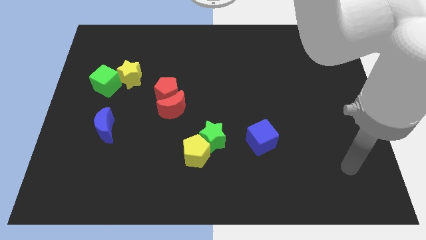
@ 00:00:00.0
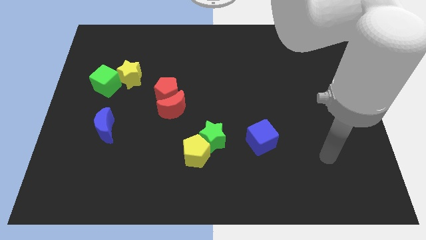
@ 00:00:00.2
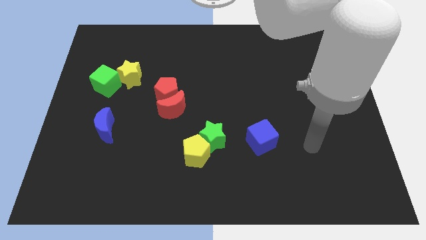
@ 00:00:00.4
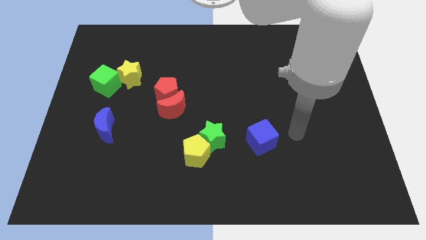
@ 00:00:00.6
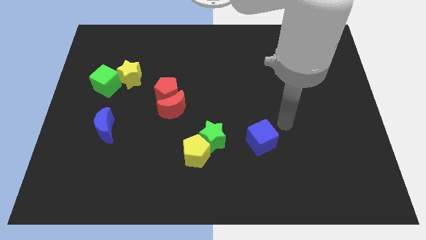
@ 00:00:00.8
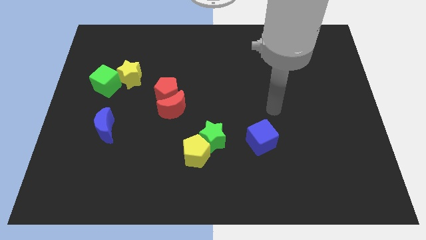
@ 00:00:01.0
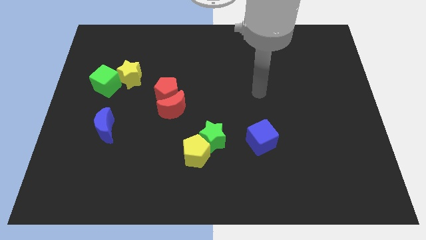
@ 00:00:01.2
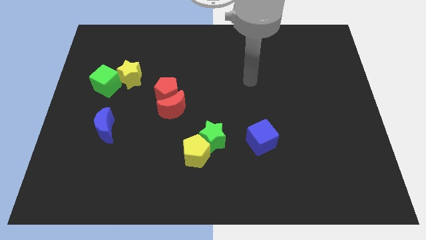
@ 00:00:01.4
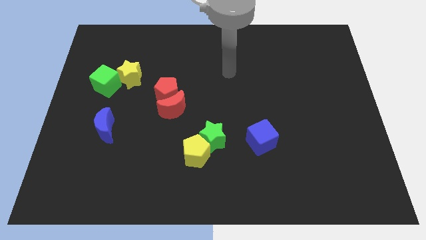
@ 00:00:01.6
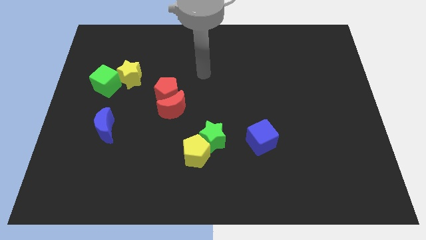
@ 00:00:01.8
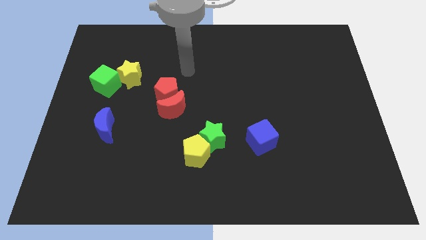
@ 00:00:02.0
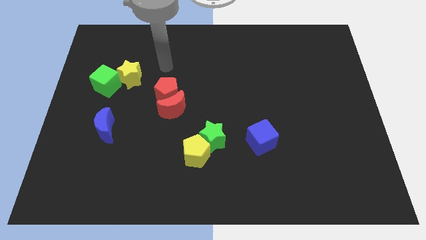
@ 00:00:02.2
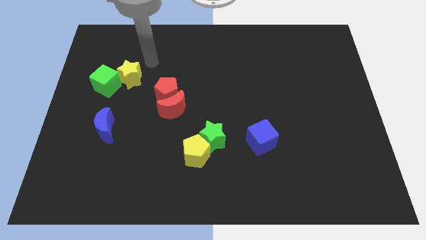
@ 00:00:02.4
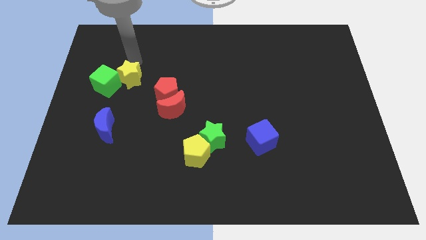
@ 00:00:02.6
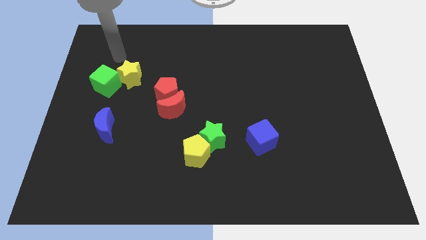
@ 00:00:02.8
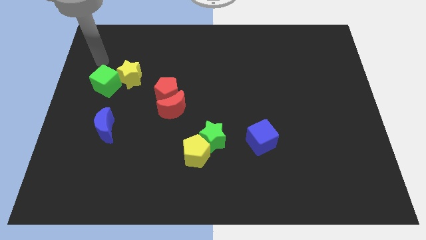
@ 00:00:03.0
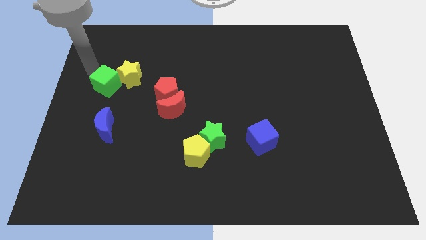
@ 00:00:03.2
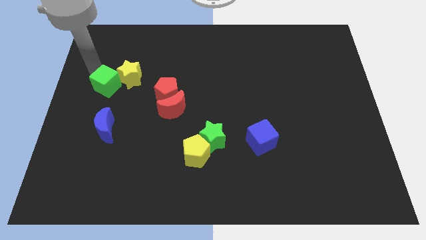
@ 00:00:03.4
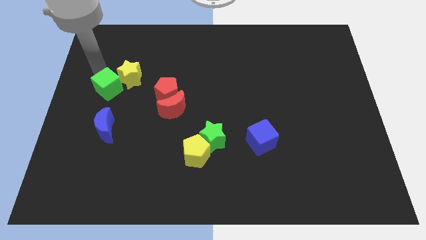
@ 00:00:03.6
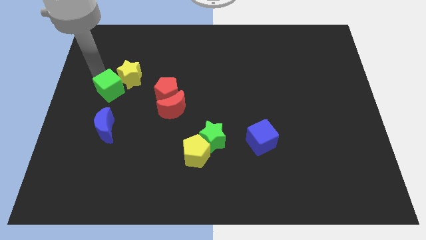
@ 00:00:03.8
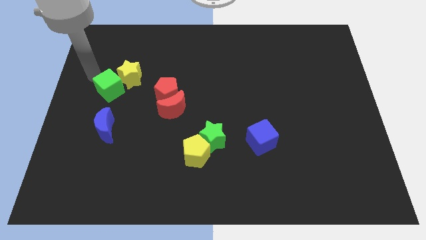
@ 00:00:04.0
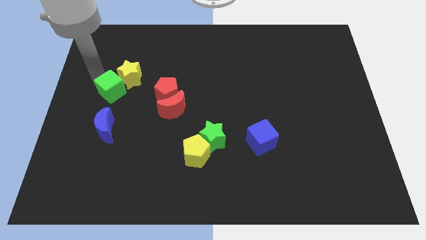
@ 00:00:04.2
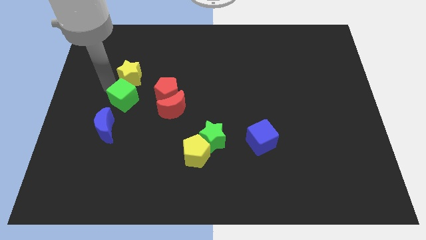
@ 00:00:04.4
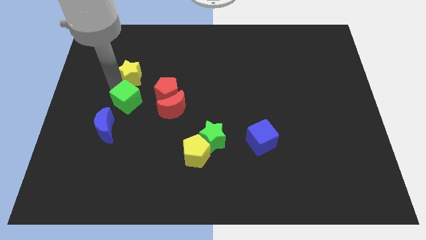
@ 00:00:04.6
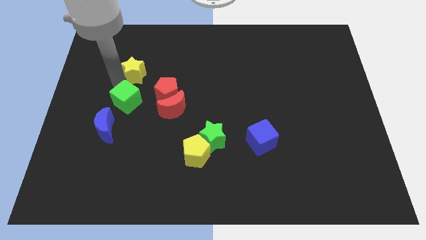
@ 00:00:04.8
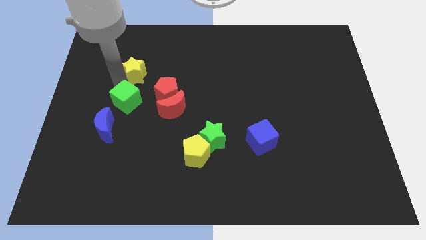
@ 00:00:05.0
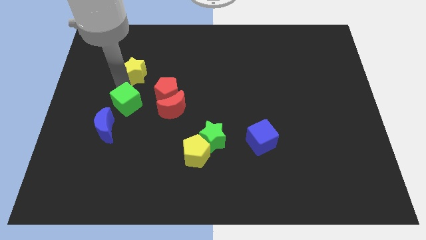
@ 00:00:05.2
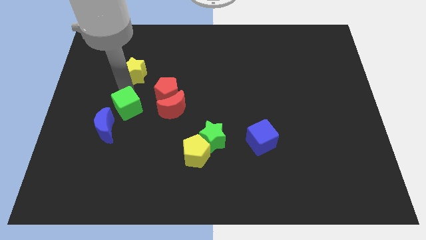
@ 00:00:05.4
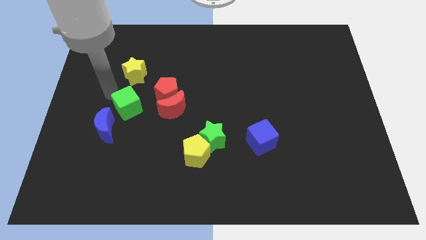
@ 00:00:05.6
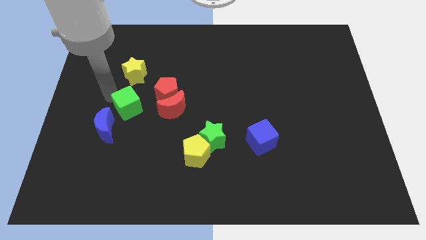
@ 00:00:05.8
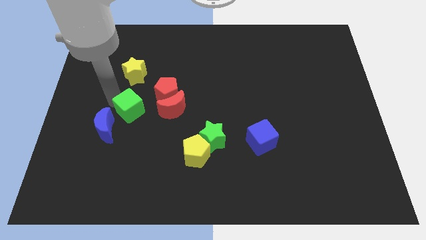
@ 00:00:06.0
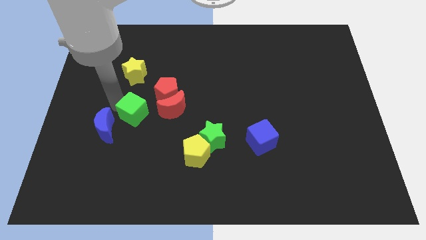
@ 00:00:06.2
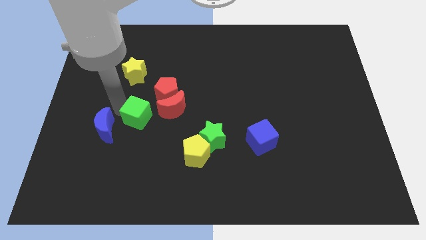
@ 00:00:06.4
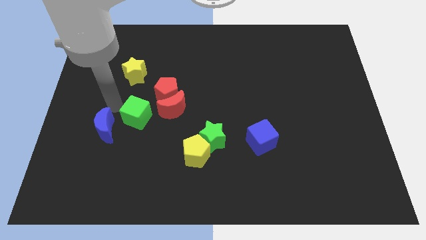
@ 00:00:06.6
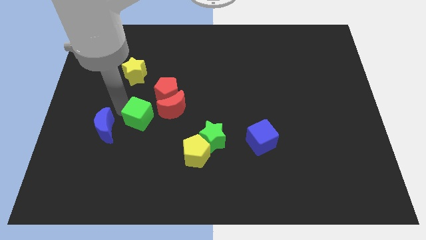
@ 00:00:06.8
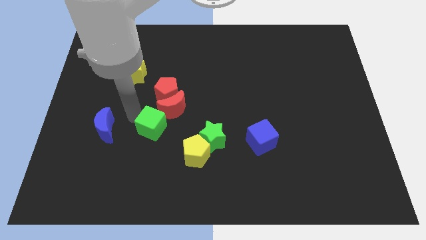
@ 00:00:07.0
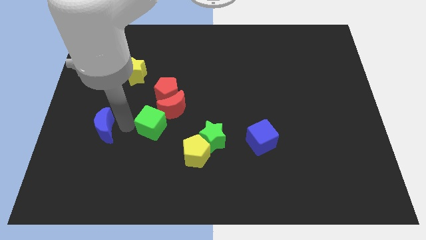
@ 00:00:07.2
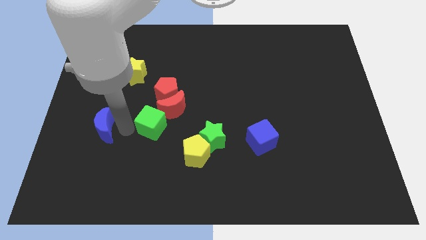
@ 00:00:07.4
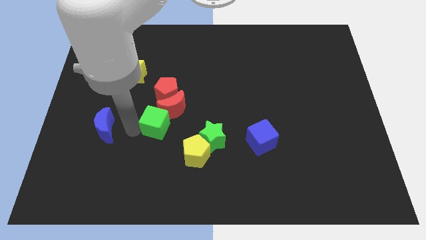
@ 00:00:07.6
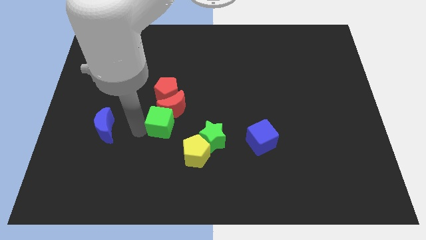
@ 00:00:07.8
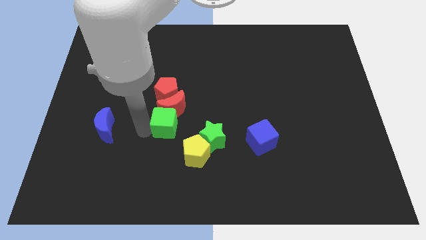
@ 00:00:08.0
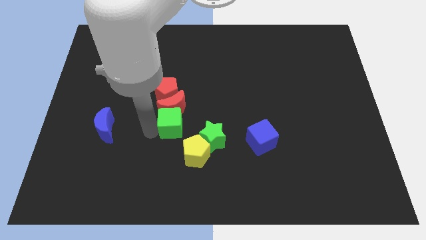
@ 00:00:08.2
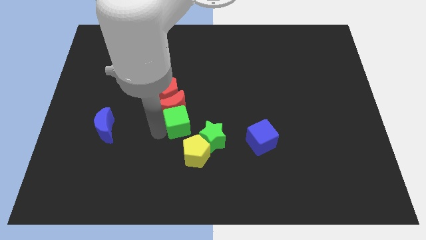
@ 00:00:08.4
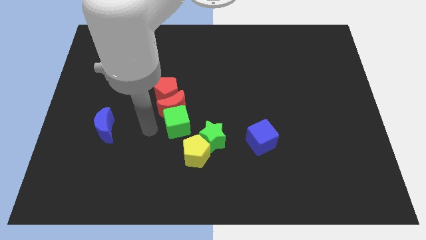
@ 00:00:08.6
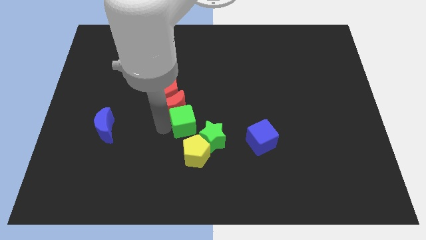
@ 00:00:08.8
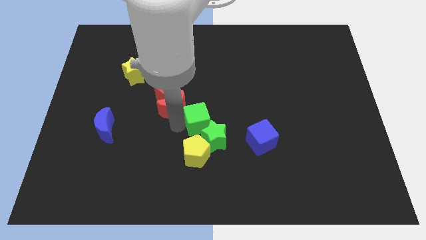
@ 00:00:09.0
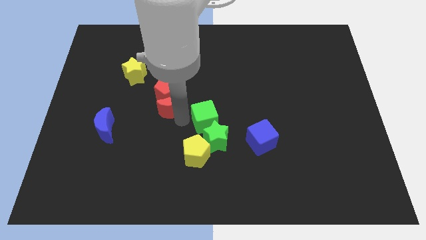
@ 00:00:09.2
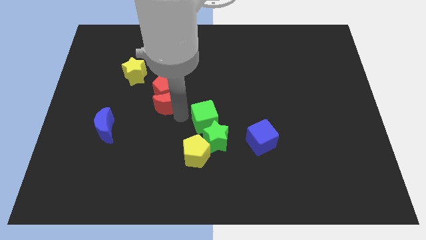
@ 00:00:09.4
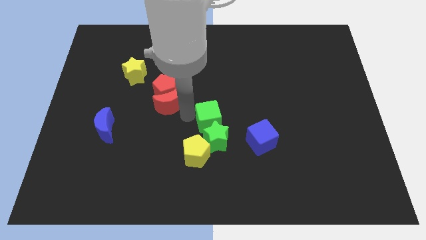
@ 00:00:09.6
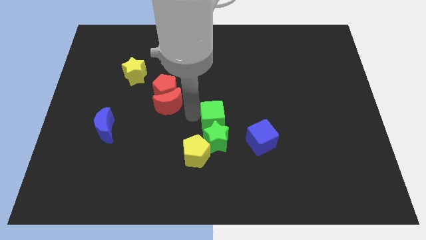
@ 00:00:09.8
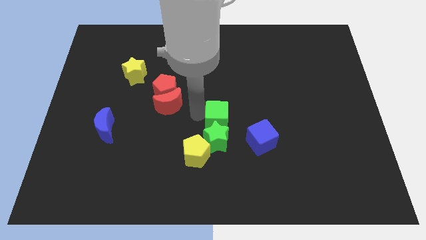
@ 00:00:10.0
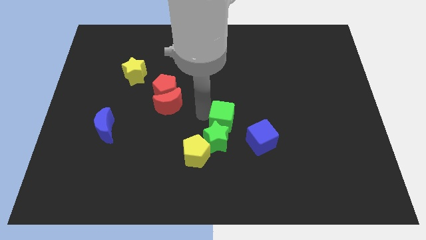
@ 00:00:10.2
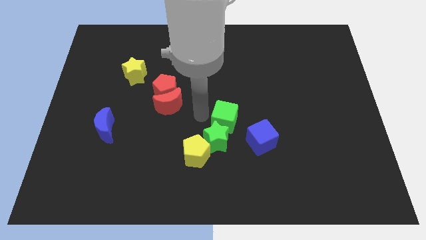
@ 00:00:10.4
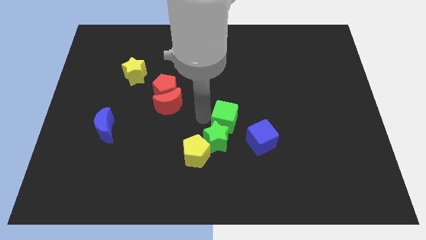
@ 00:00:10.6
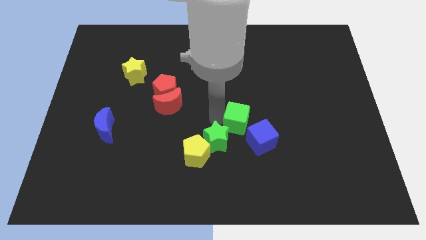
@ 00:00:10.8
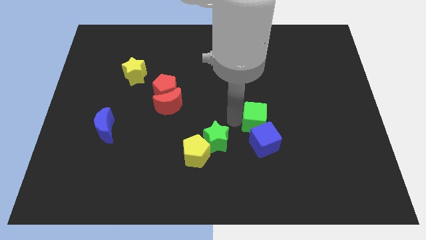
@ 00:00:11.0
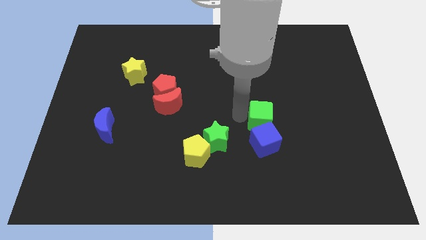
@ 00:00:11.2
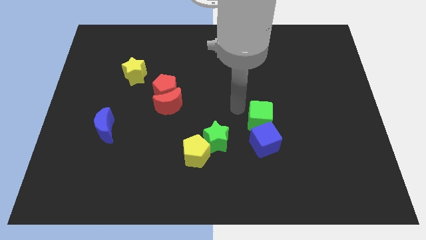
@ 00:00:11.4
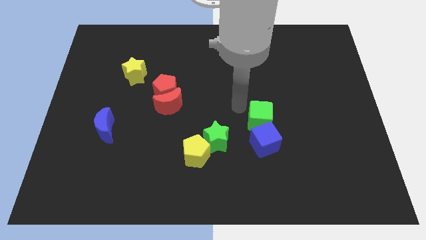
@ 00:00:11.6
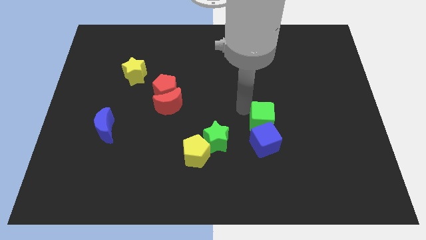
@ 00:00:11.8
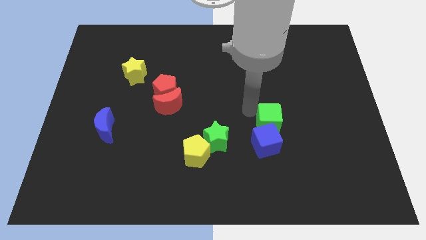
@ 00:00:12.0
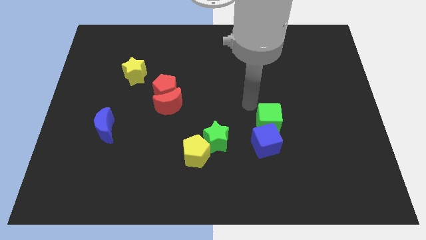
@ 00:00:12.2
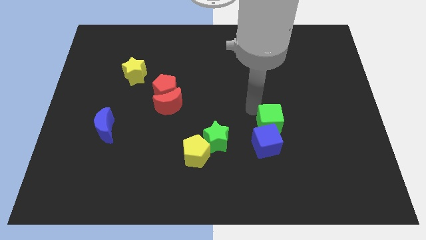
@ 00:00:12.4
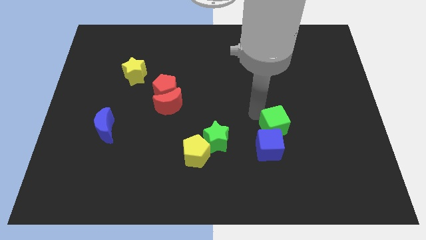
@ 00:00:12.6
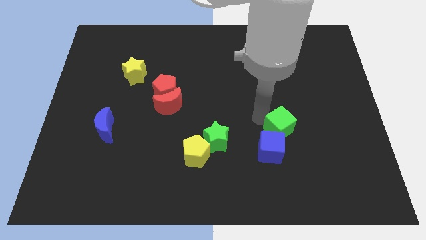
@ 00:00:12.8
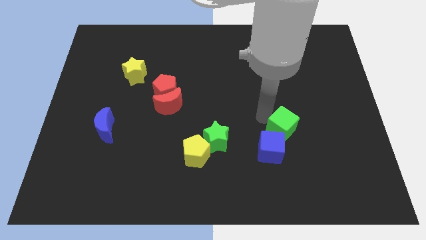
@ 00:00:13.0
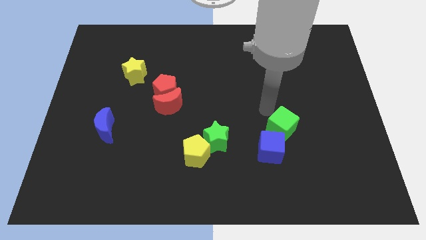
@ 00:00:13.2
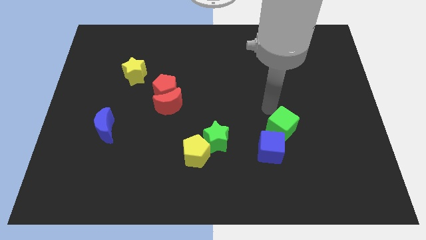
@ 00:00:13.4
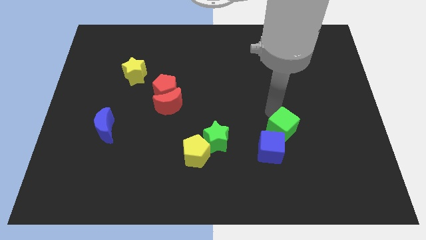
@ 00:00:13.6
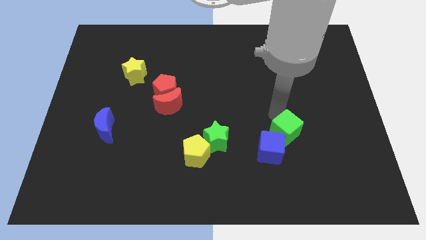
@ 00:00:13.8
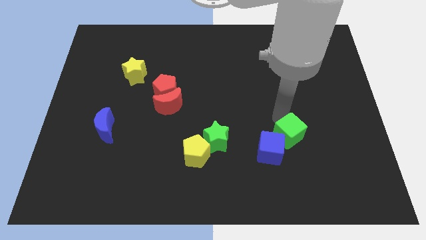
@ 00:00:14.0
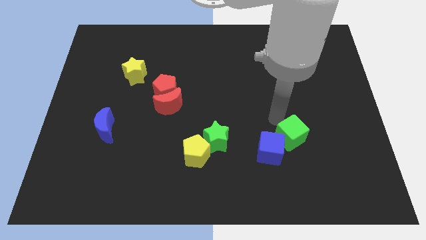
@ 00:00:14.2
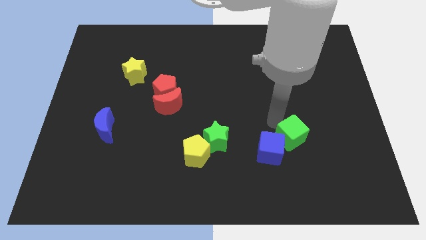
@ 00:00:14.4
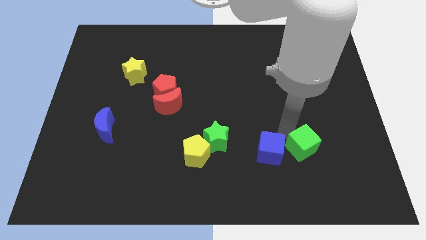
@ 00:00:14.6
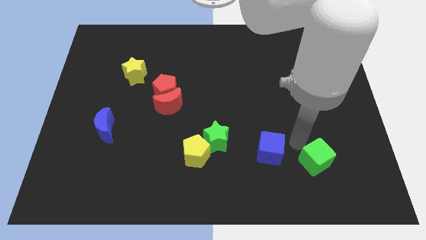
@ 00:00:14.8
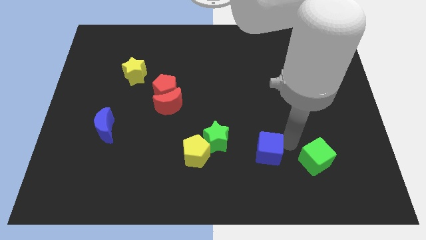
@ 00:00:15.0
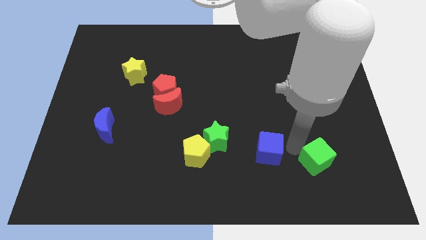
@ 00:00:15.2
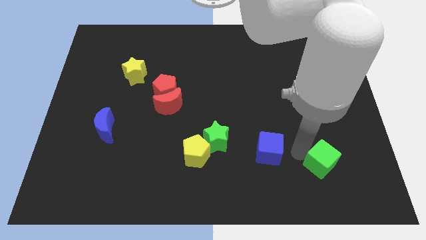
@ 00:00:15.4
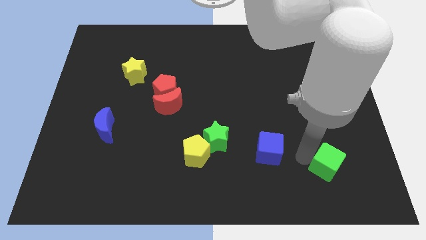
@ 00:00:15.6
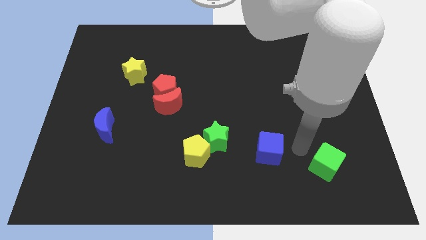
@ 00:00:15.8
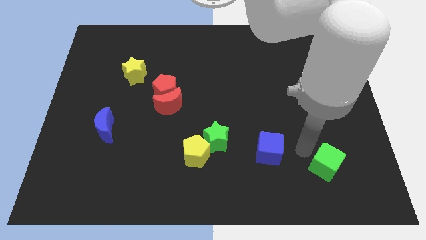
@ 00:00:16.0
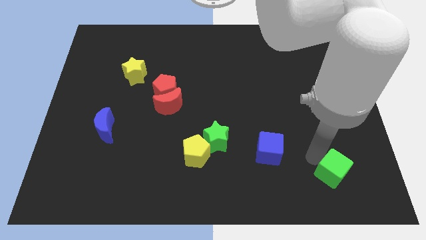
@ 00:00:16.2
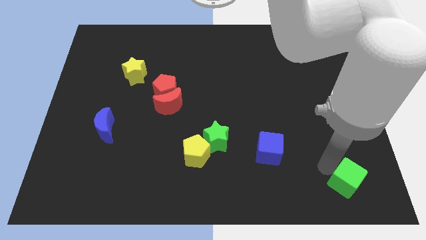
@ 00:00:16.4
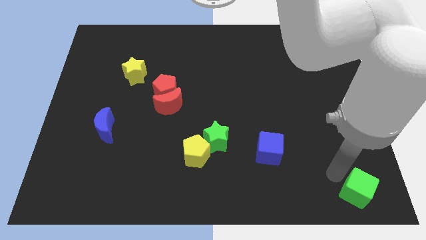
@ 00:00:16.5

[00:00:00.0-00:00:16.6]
move the green cube to the lower right corner
